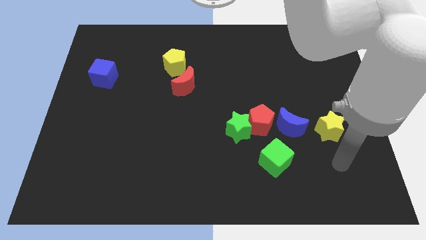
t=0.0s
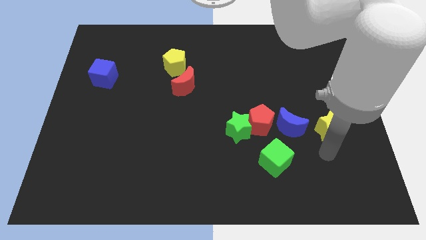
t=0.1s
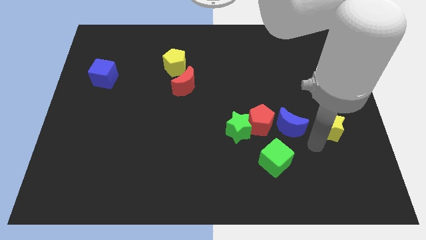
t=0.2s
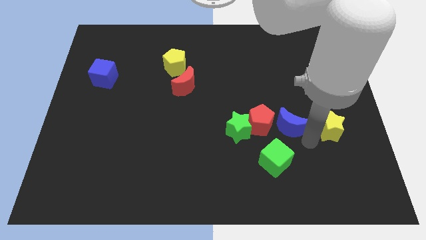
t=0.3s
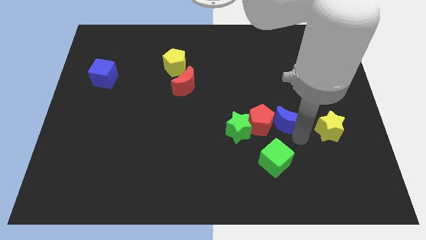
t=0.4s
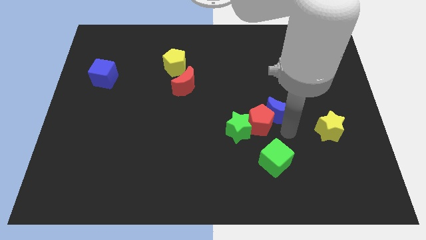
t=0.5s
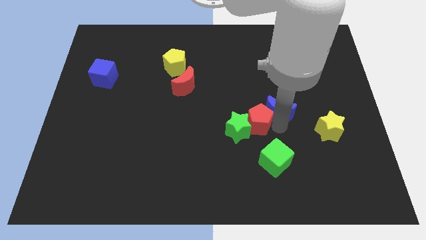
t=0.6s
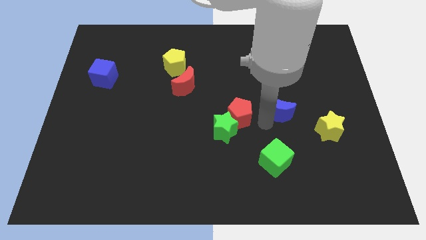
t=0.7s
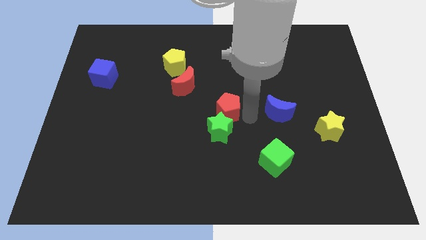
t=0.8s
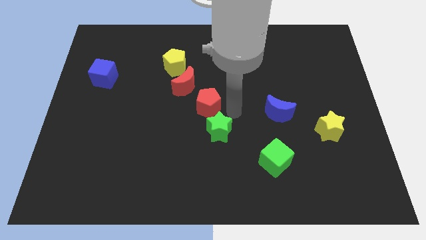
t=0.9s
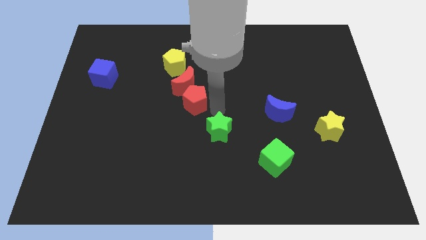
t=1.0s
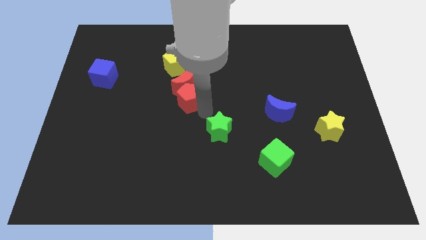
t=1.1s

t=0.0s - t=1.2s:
move the green star away from the red pentagon

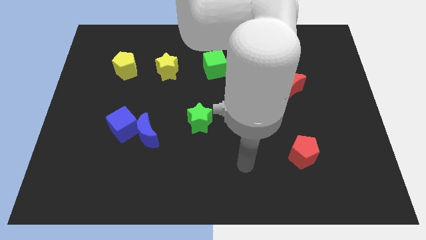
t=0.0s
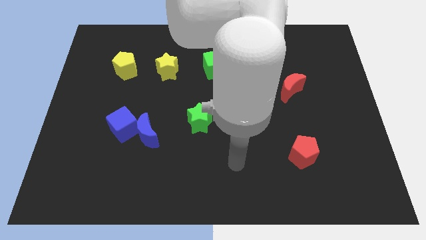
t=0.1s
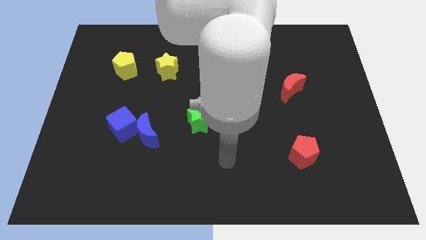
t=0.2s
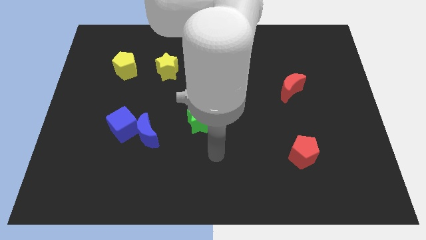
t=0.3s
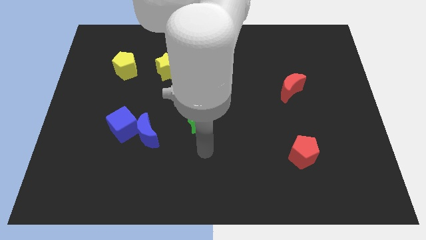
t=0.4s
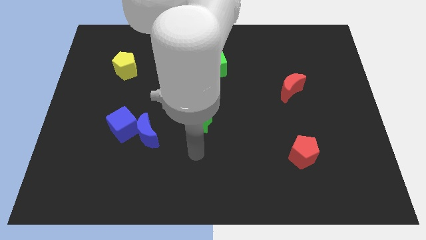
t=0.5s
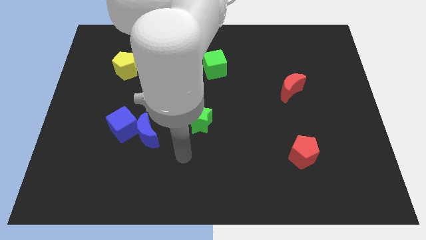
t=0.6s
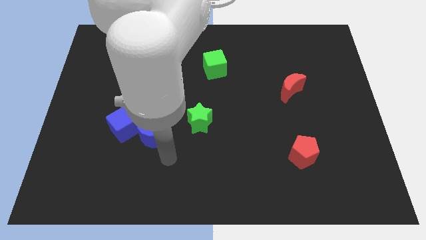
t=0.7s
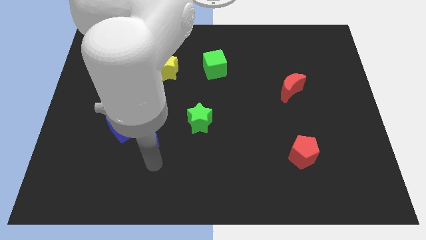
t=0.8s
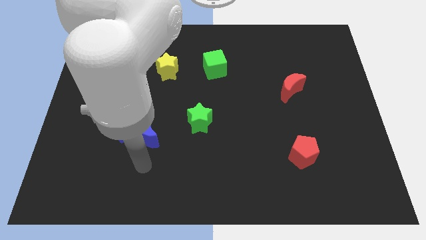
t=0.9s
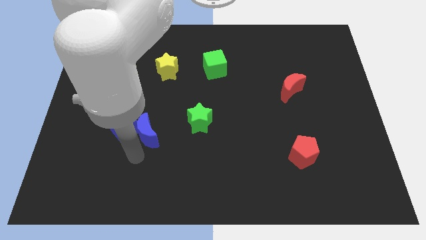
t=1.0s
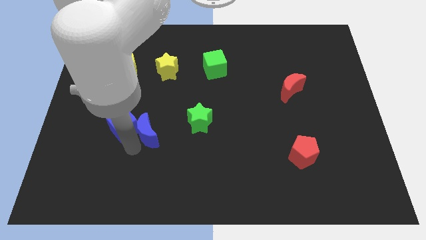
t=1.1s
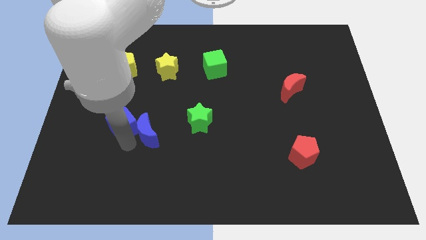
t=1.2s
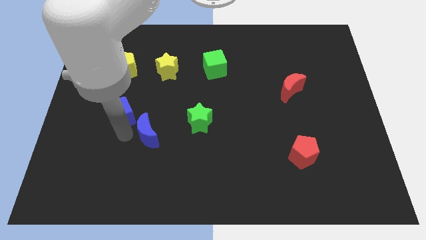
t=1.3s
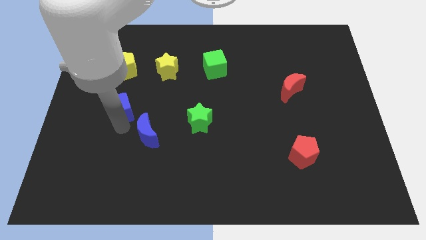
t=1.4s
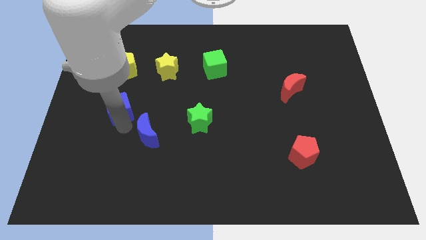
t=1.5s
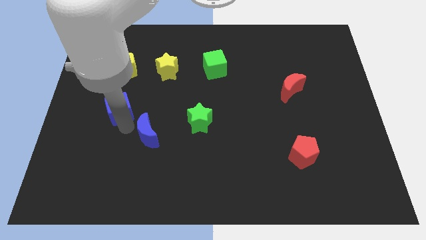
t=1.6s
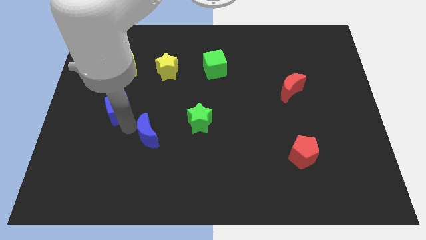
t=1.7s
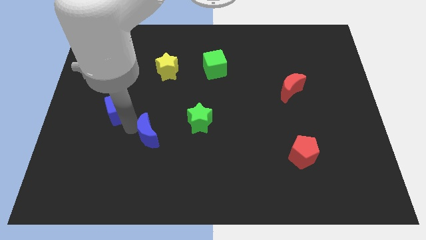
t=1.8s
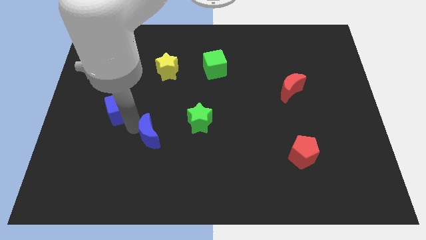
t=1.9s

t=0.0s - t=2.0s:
separate the blue moon from the blue cube

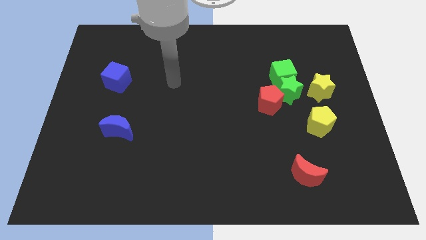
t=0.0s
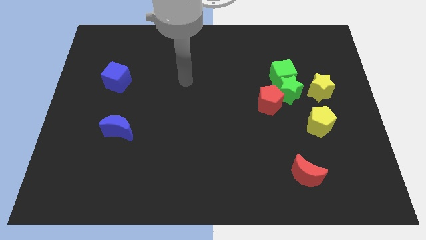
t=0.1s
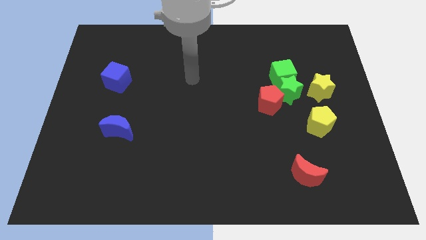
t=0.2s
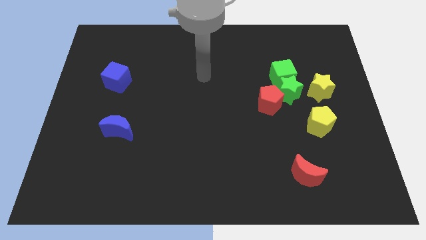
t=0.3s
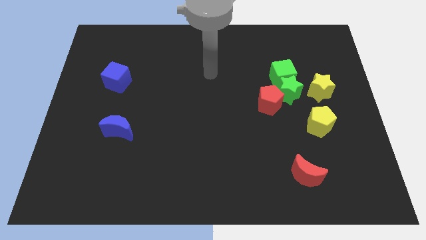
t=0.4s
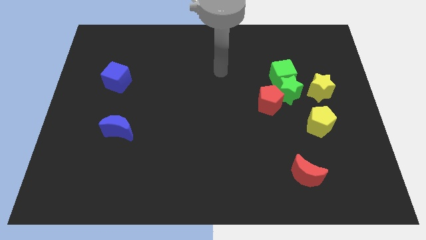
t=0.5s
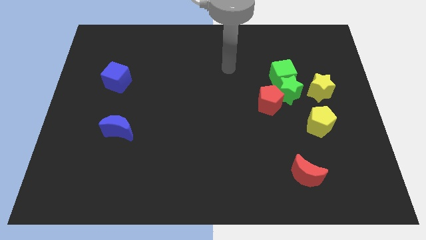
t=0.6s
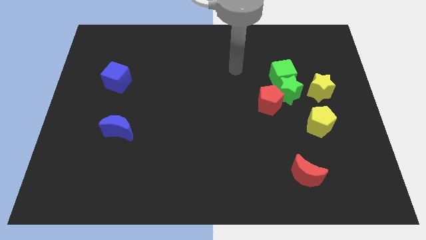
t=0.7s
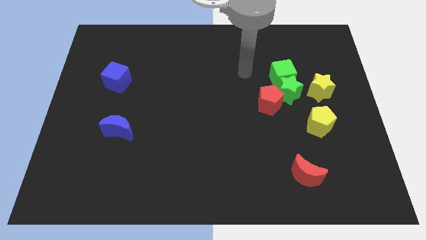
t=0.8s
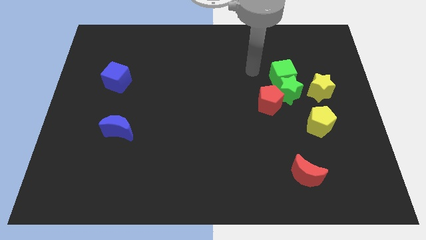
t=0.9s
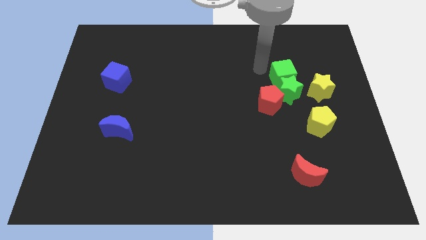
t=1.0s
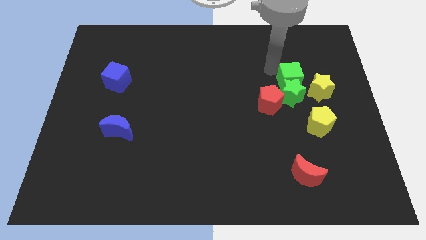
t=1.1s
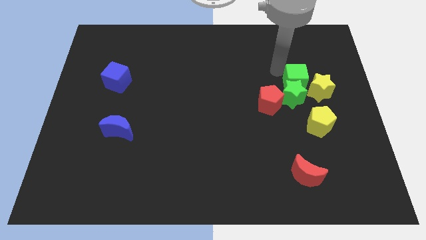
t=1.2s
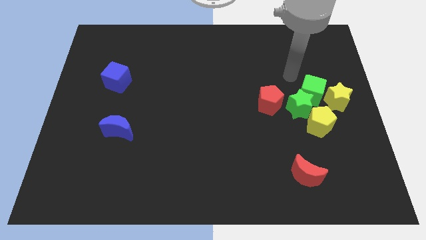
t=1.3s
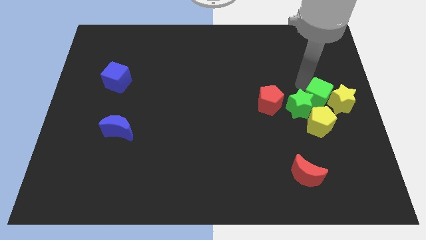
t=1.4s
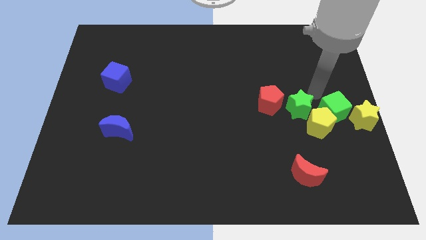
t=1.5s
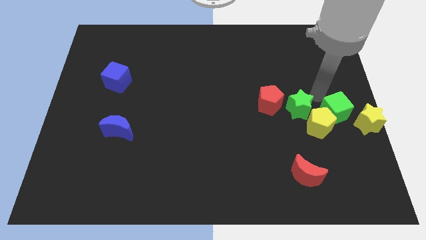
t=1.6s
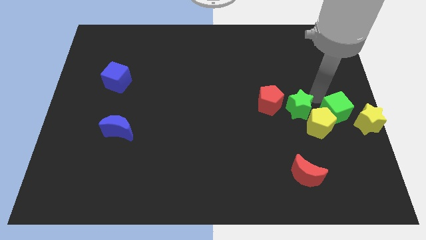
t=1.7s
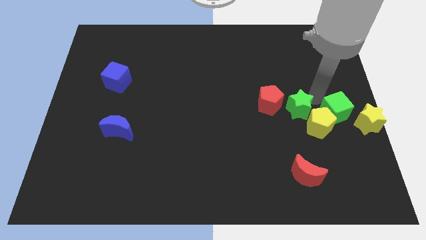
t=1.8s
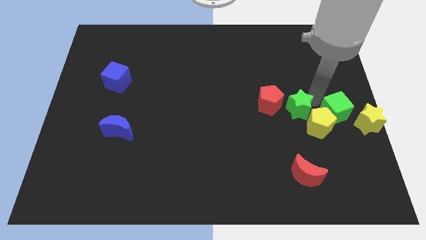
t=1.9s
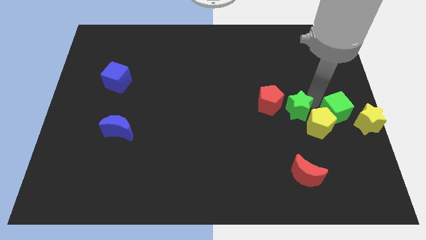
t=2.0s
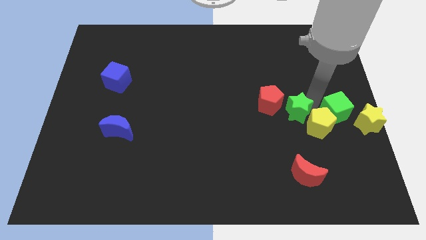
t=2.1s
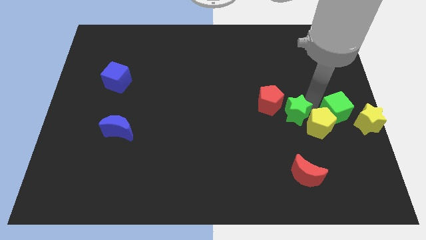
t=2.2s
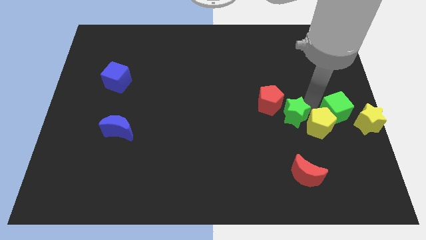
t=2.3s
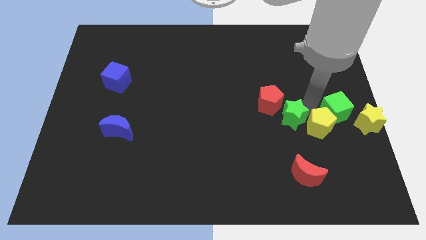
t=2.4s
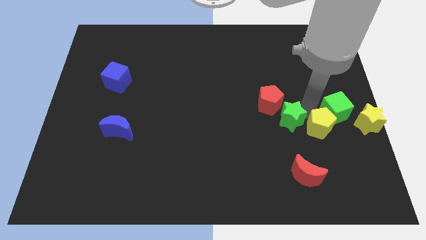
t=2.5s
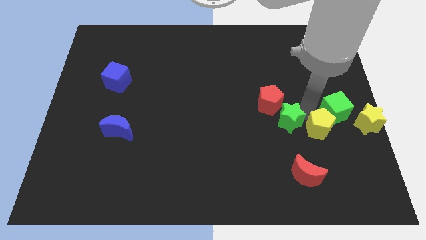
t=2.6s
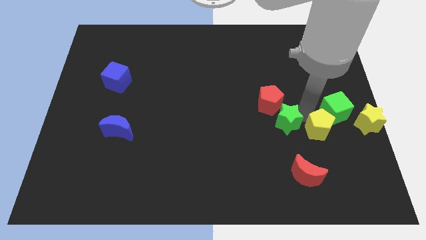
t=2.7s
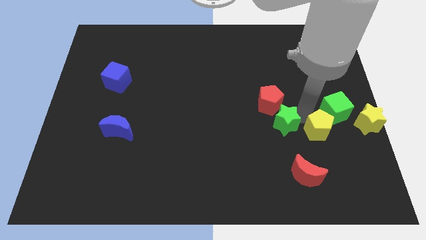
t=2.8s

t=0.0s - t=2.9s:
pull the green star apart from the green cube, red pentagon, and yellow star

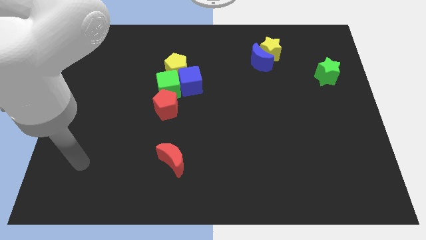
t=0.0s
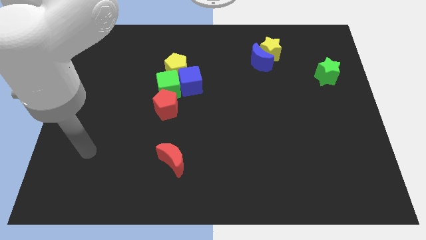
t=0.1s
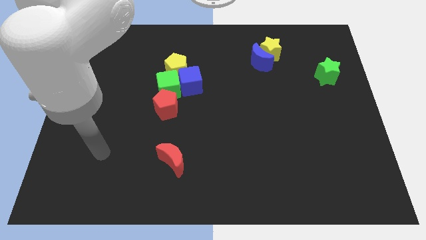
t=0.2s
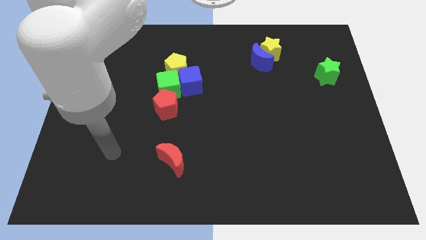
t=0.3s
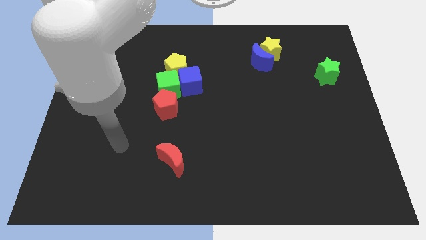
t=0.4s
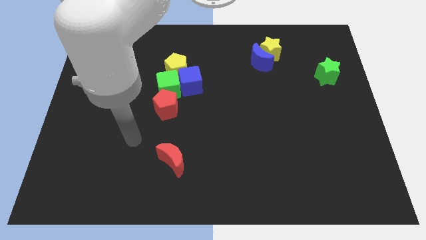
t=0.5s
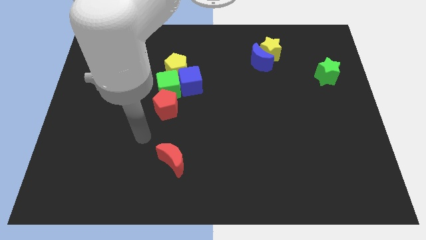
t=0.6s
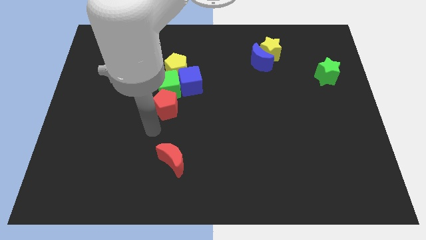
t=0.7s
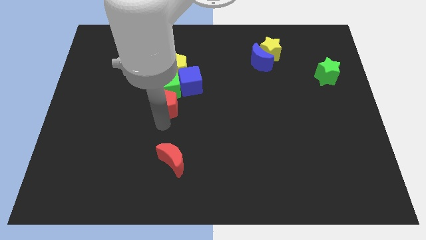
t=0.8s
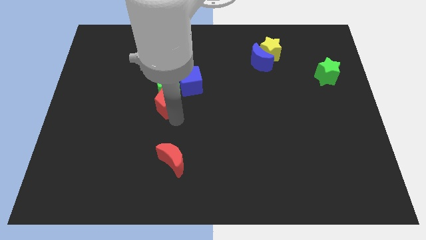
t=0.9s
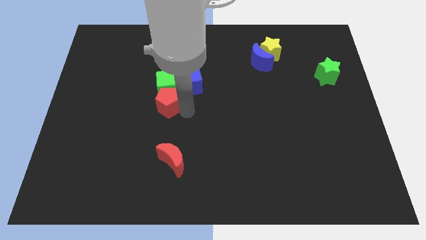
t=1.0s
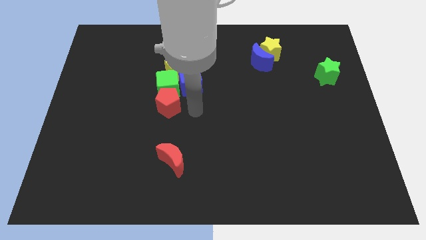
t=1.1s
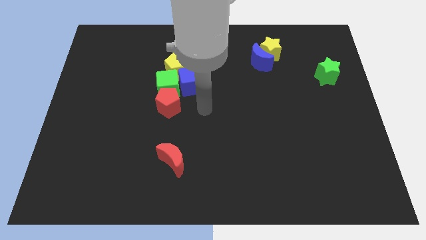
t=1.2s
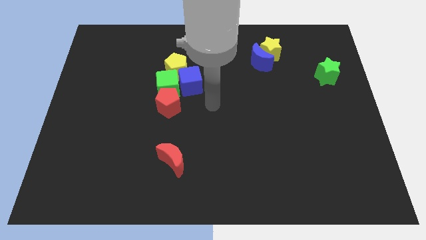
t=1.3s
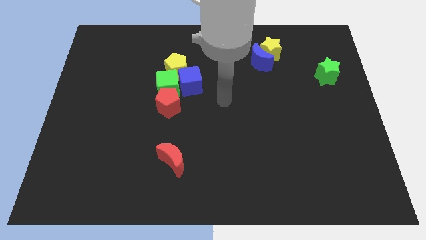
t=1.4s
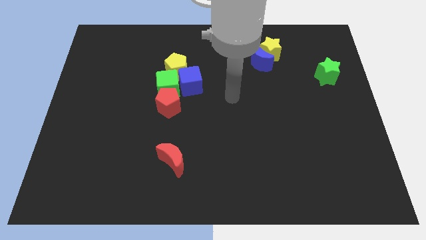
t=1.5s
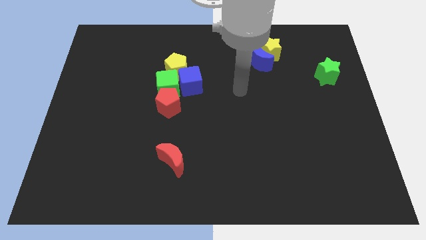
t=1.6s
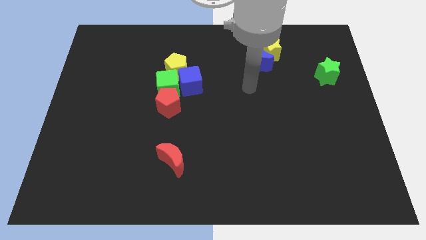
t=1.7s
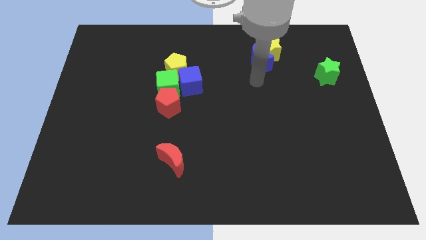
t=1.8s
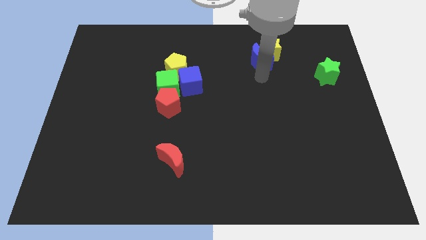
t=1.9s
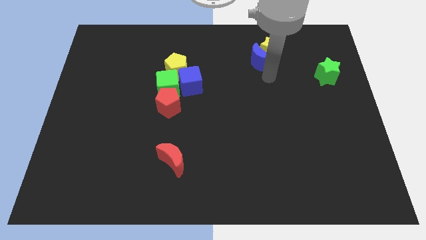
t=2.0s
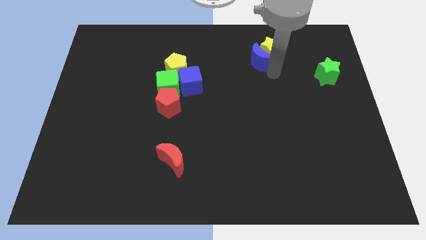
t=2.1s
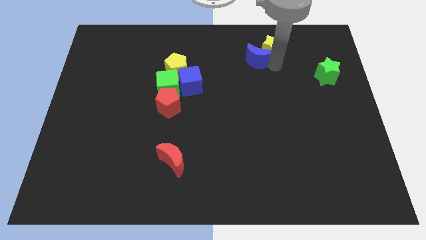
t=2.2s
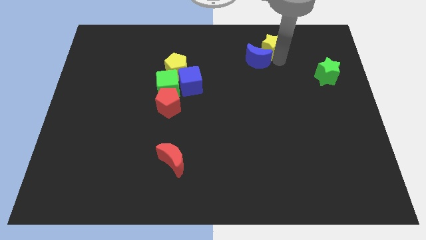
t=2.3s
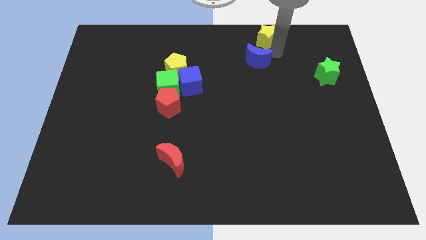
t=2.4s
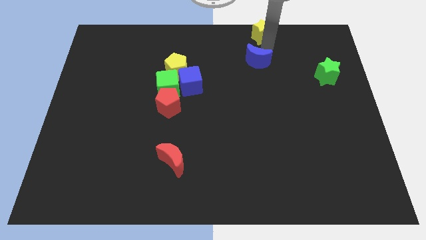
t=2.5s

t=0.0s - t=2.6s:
separate the blue moon from the yellow star

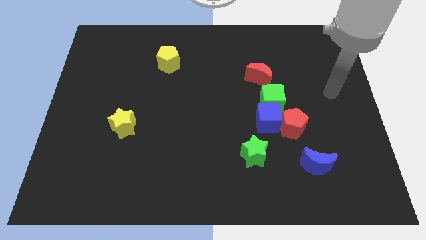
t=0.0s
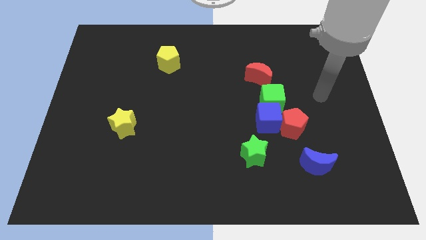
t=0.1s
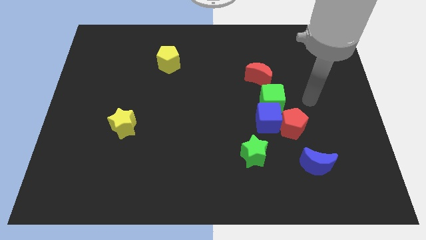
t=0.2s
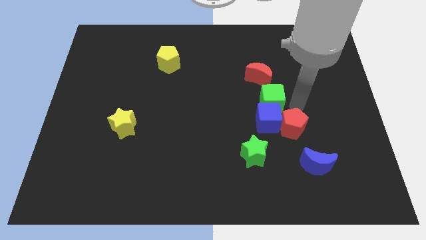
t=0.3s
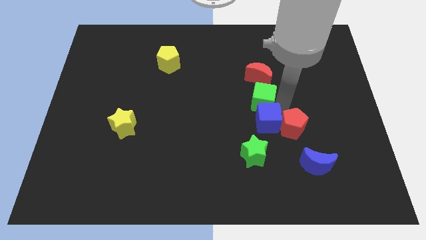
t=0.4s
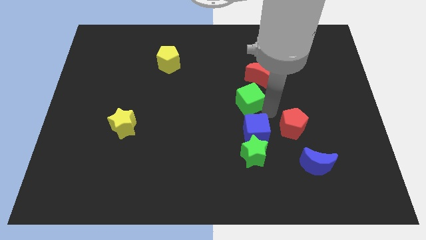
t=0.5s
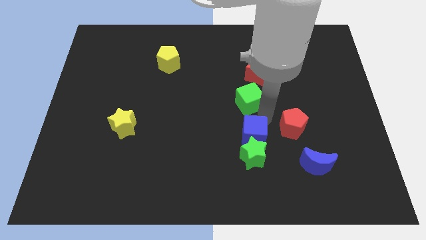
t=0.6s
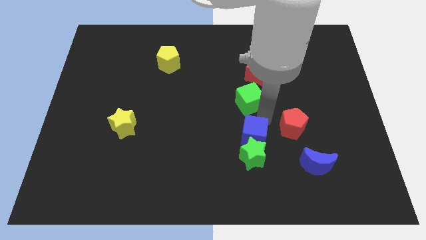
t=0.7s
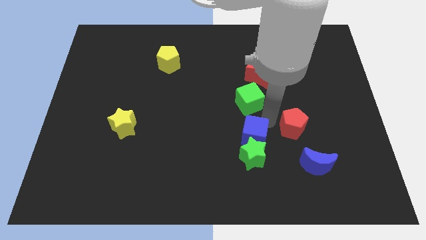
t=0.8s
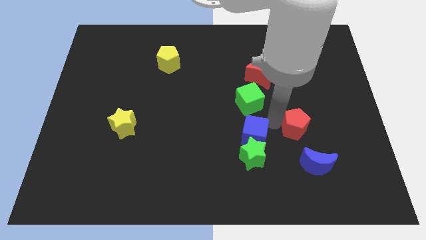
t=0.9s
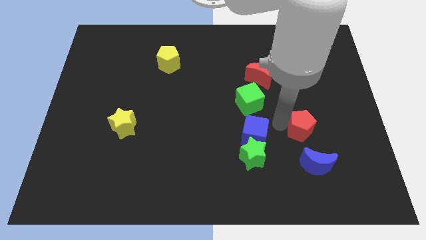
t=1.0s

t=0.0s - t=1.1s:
pull the red pentagon apart from the blue cube and green cube
